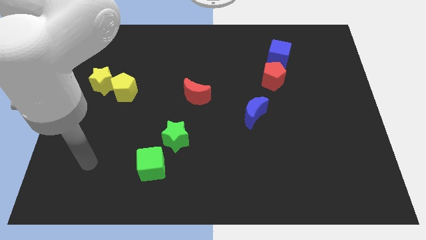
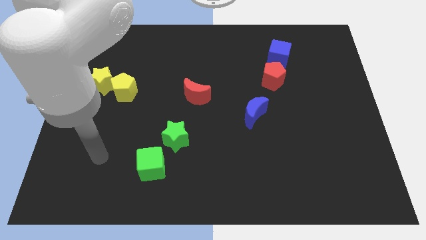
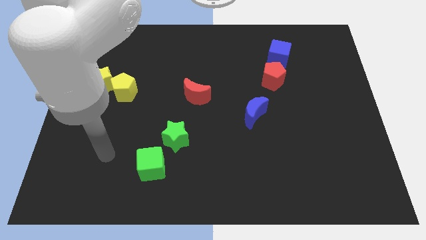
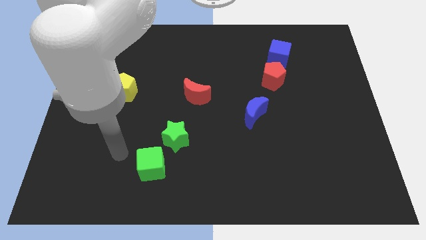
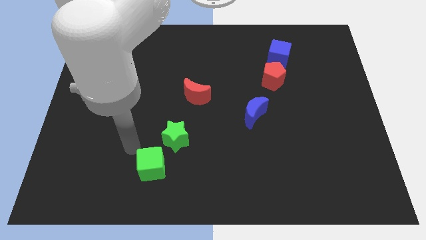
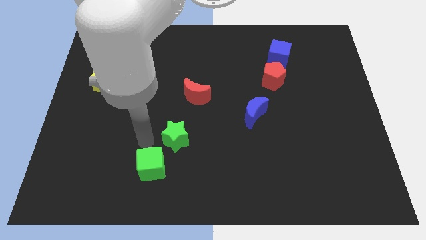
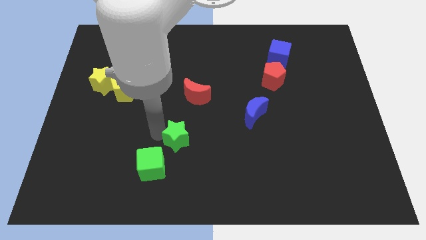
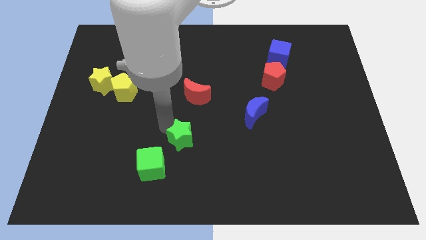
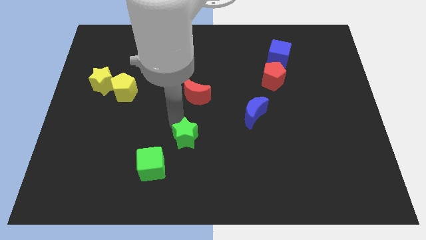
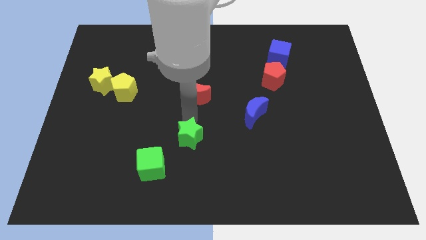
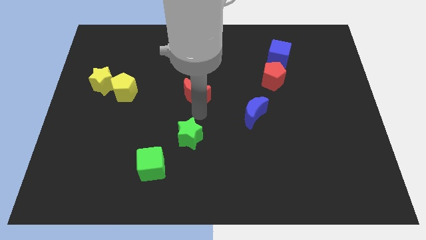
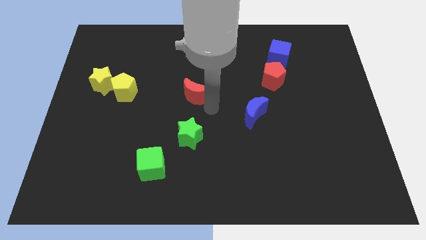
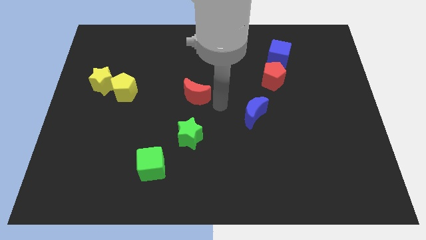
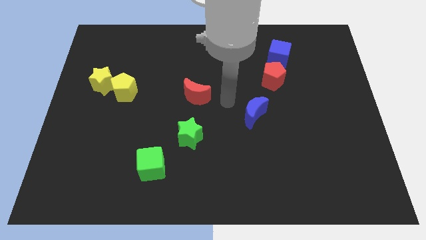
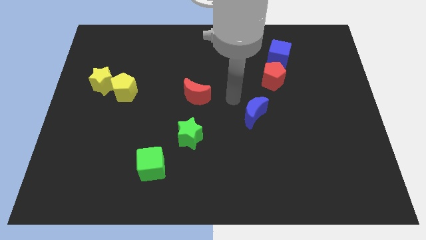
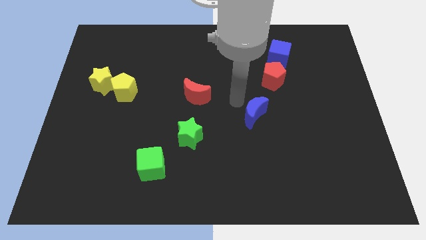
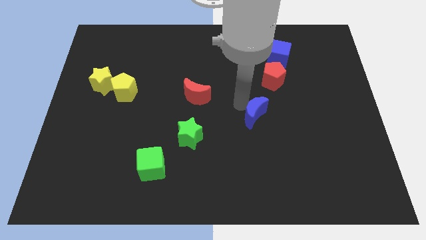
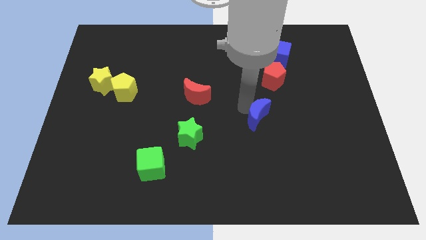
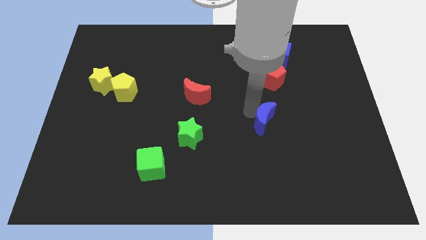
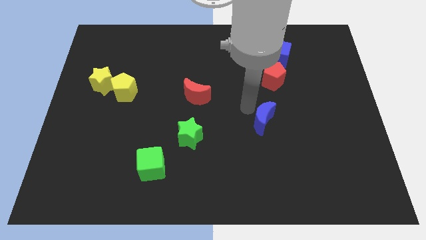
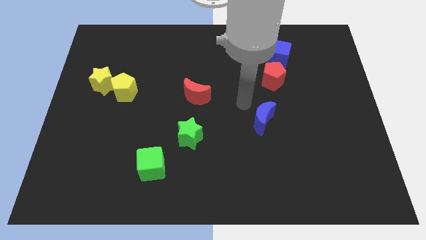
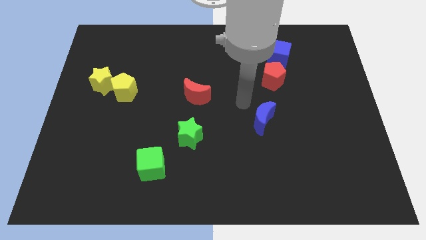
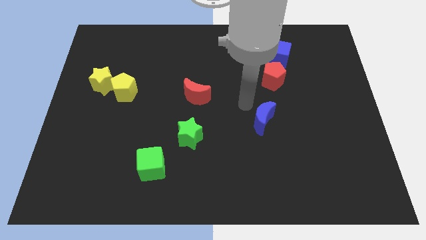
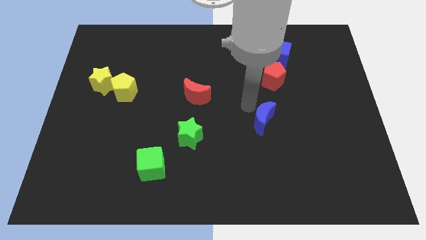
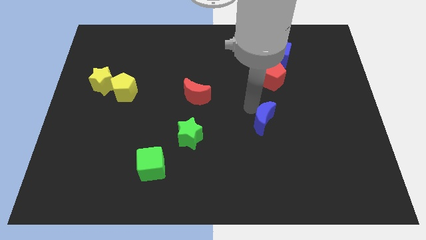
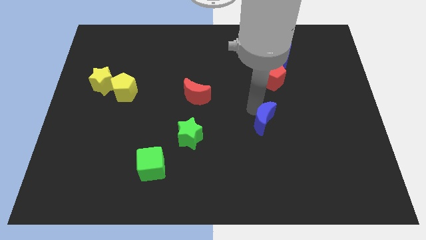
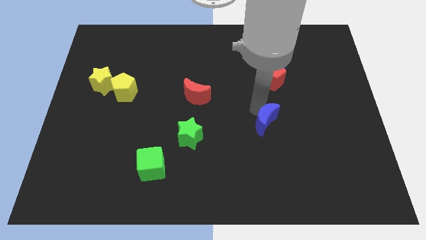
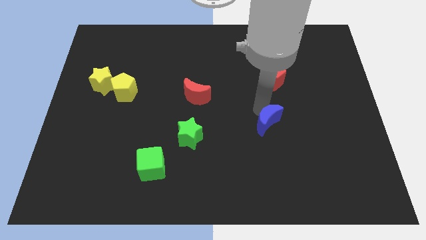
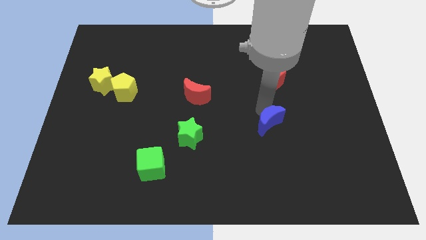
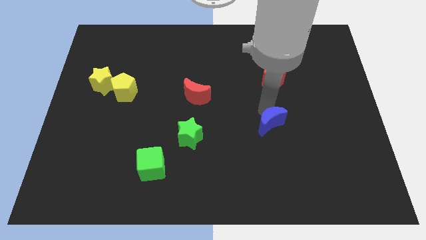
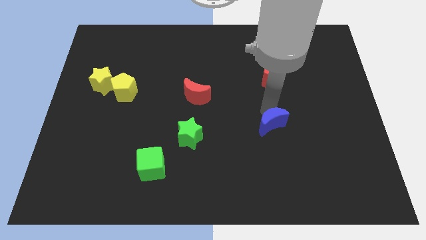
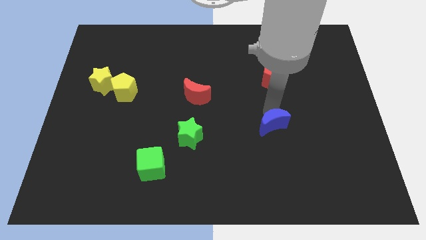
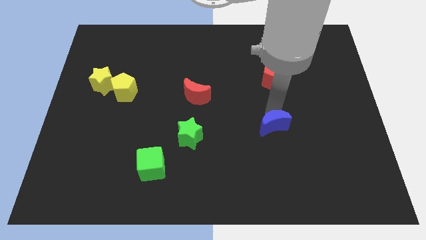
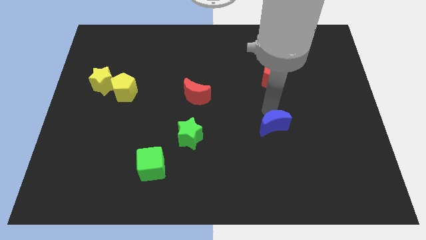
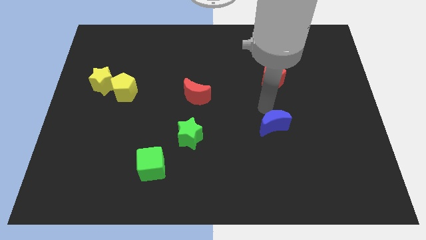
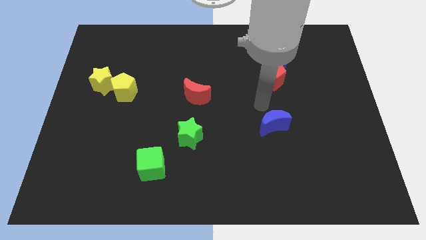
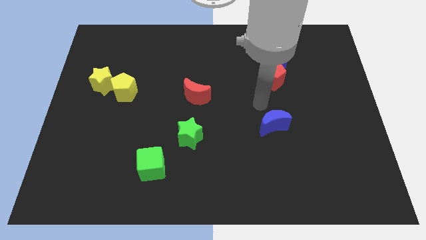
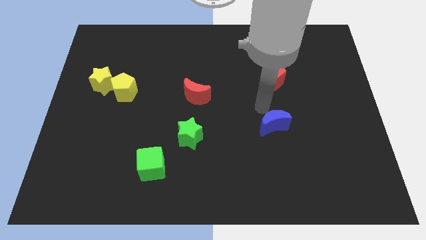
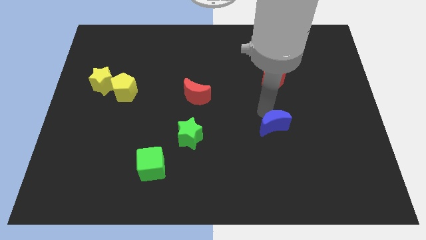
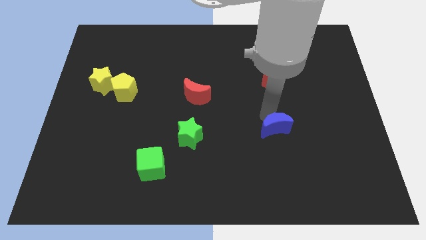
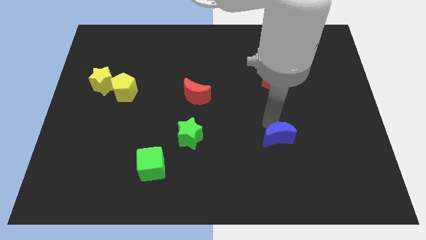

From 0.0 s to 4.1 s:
slightly move the blue moon diagonally downwards and to the right

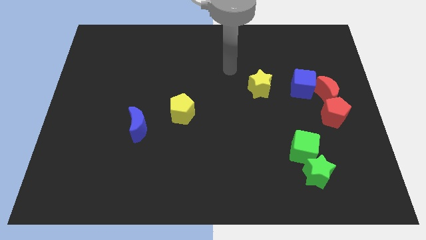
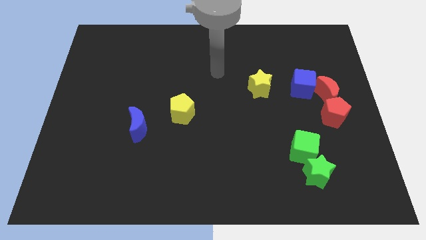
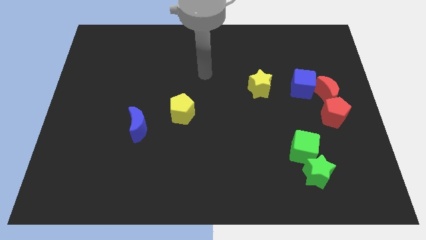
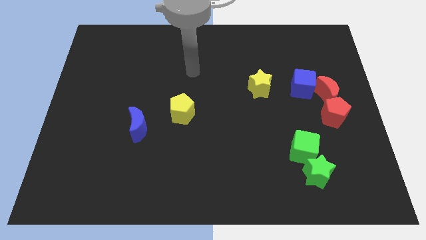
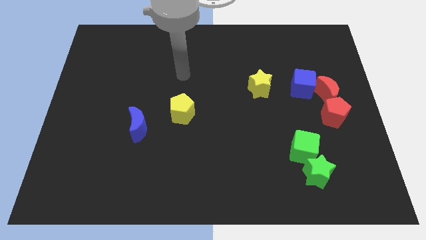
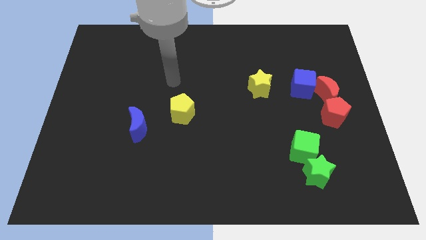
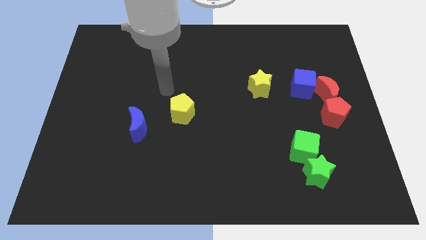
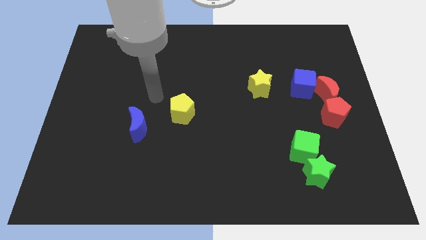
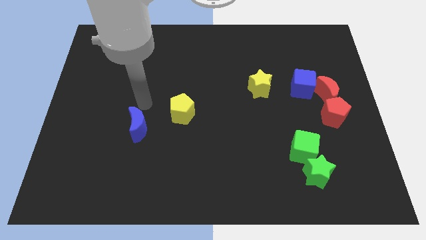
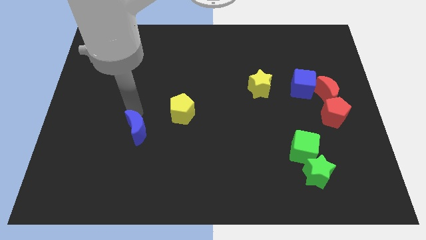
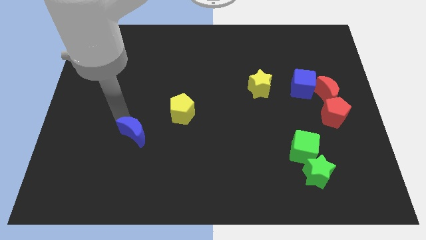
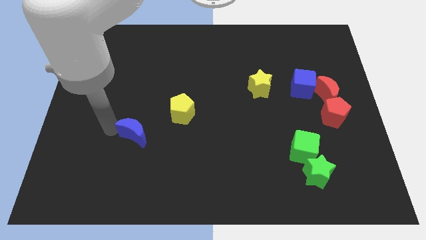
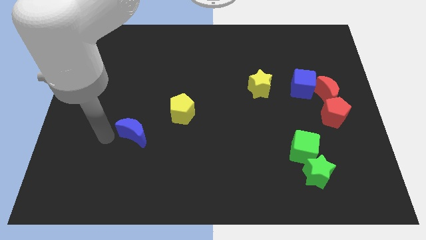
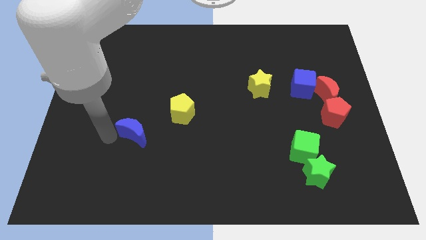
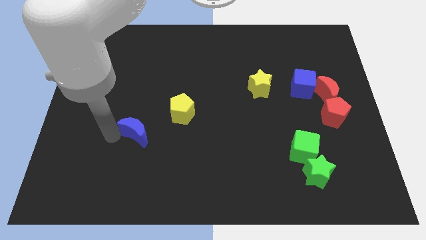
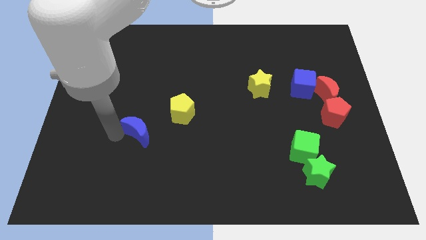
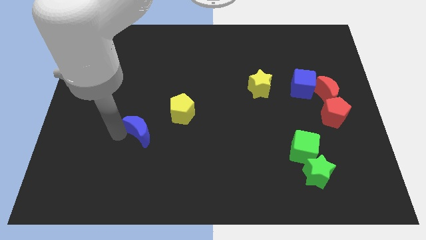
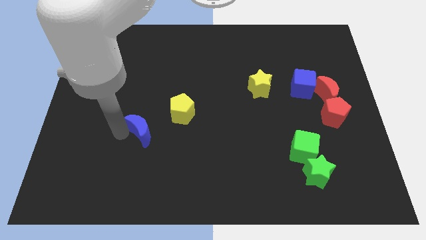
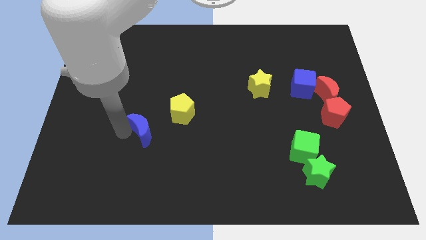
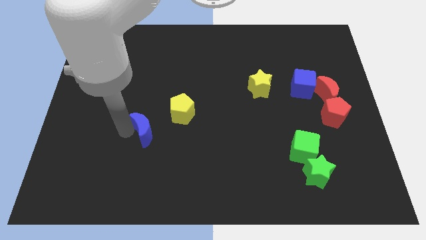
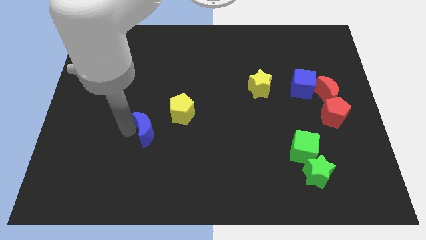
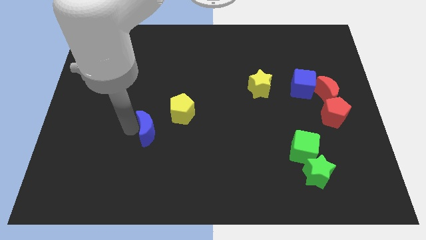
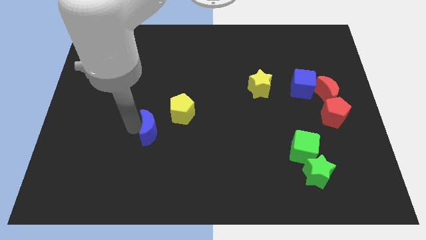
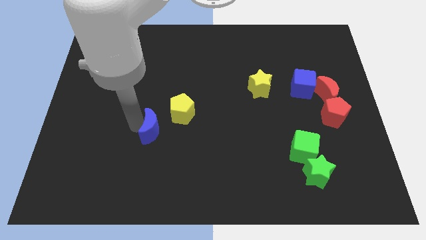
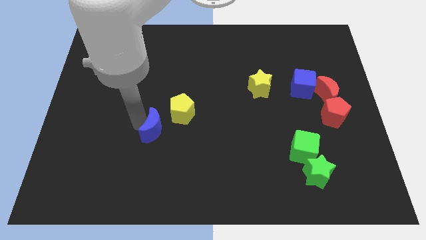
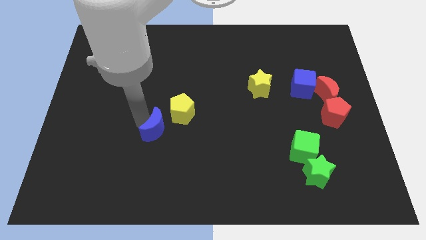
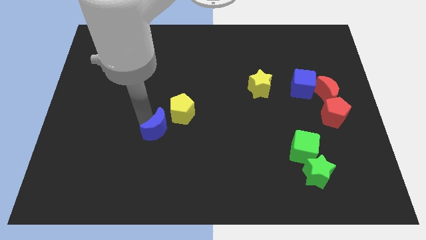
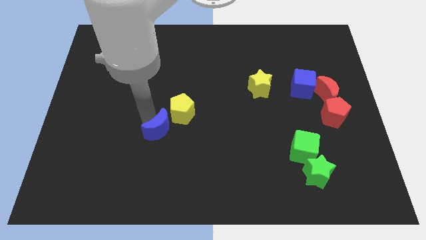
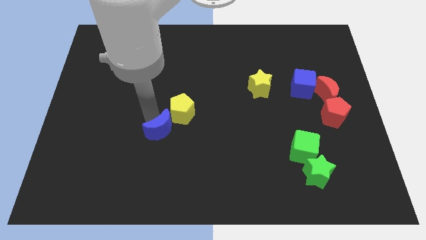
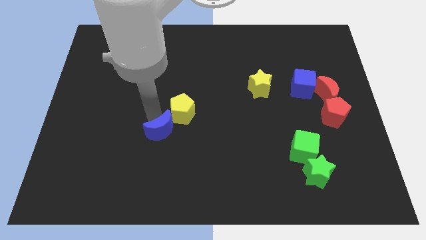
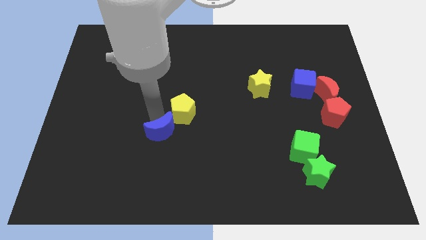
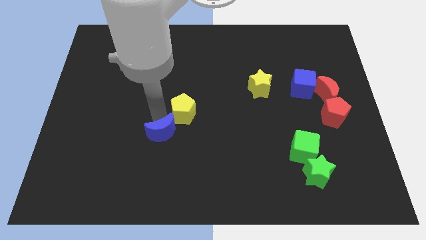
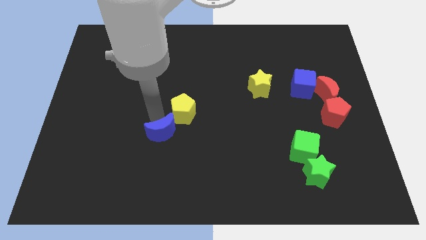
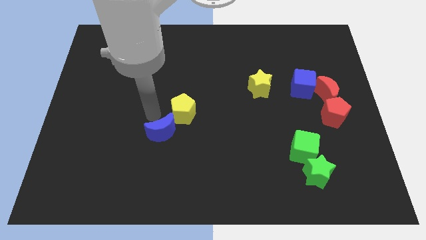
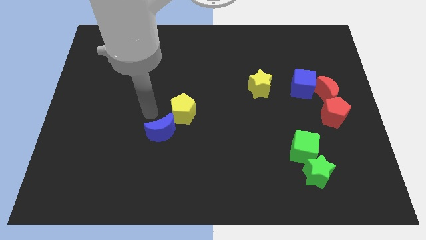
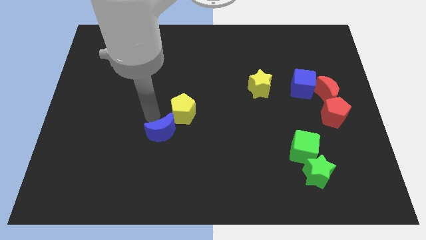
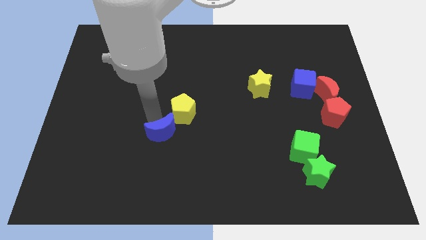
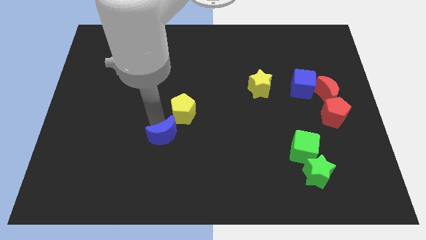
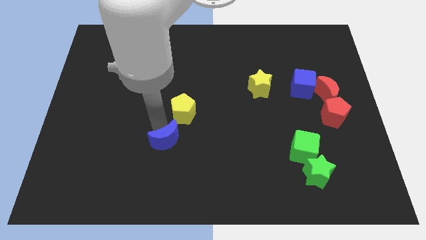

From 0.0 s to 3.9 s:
slightly slide the blue moon downwards and then to the right

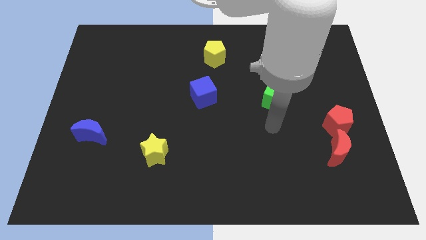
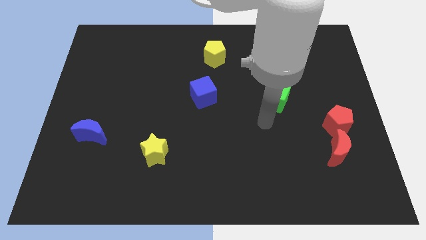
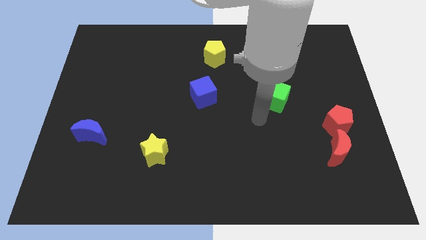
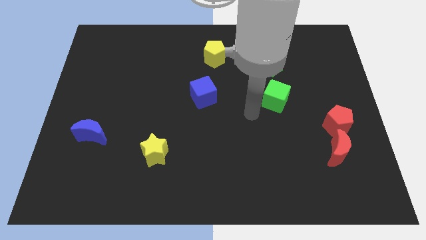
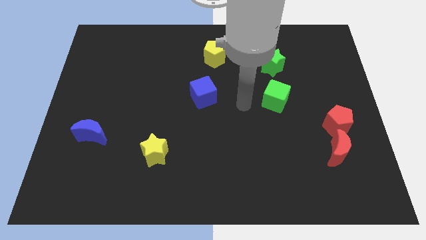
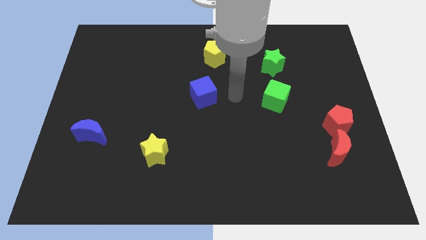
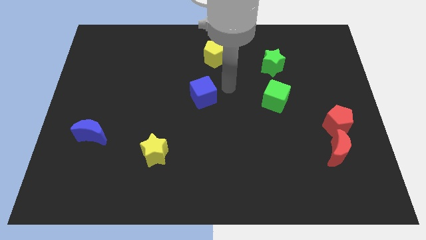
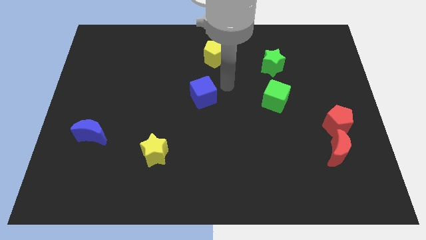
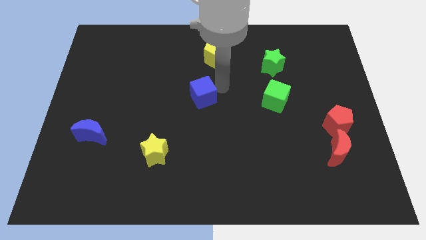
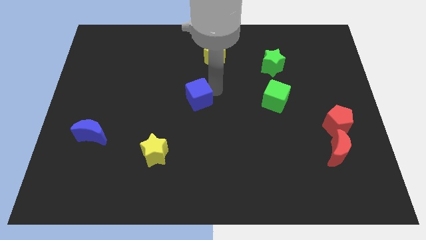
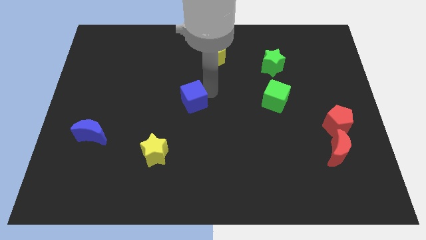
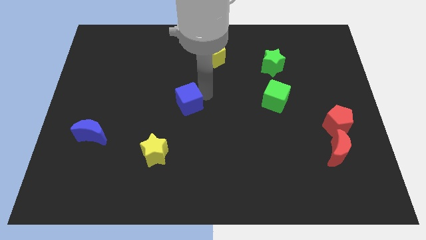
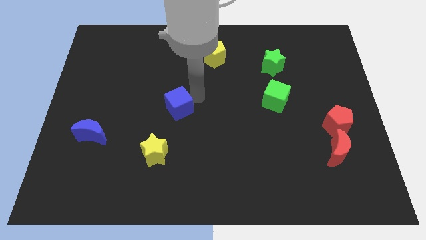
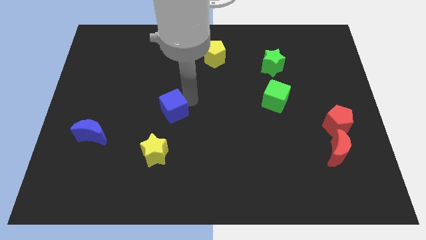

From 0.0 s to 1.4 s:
push the blue cube downwards and to the left diagonally slightly
